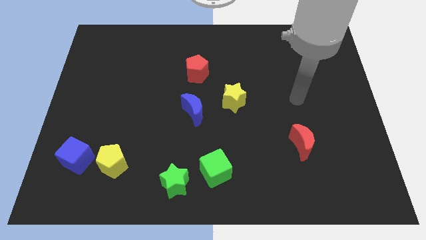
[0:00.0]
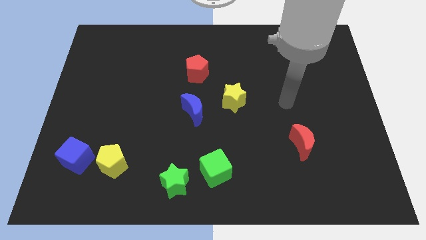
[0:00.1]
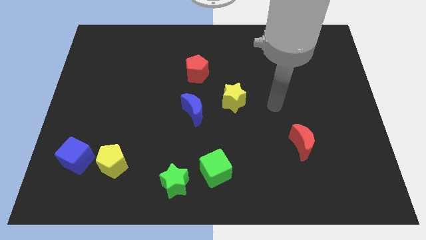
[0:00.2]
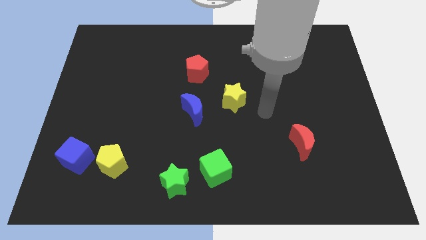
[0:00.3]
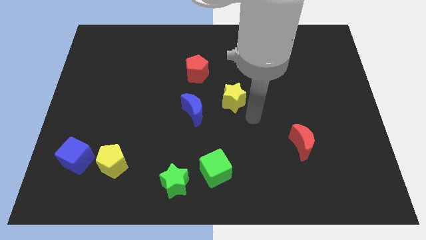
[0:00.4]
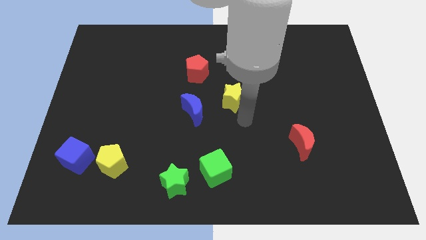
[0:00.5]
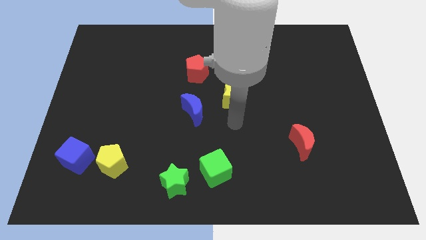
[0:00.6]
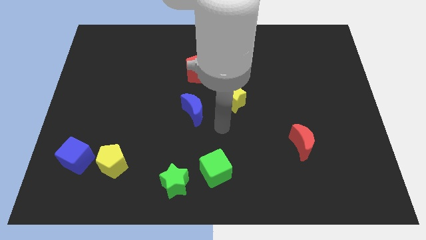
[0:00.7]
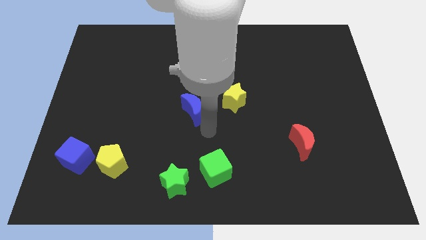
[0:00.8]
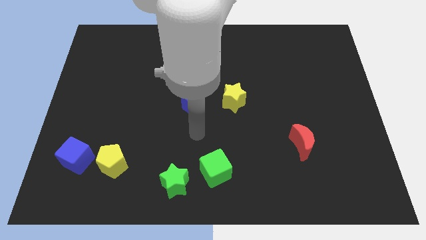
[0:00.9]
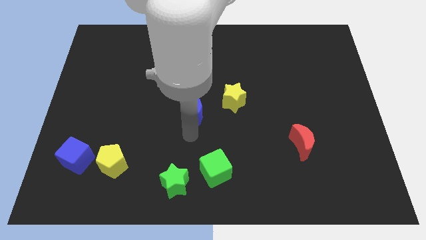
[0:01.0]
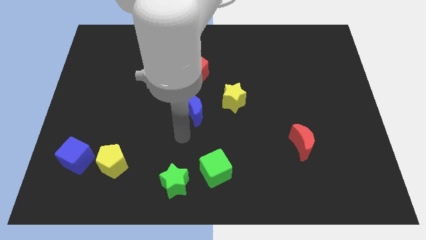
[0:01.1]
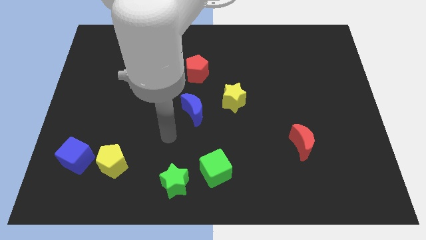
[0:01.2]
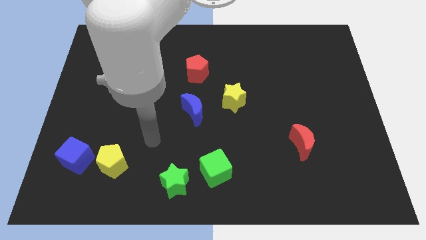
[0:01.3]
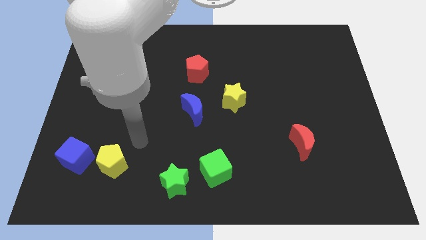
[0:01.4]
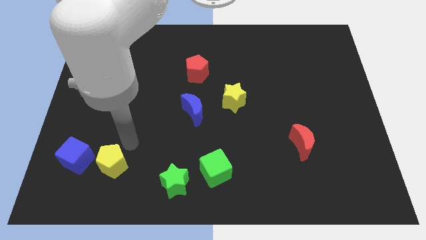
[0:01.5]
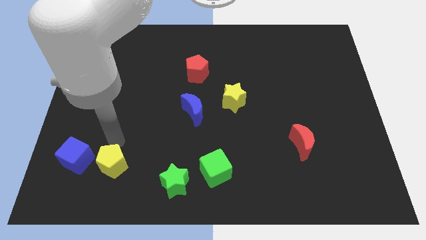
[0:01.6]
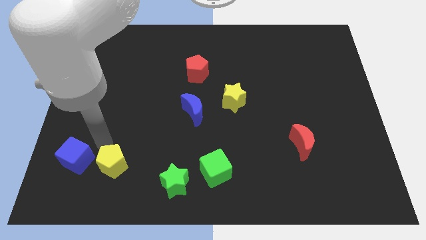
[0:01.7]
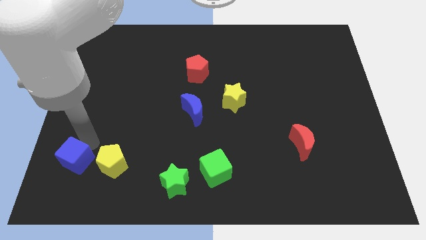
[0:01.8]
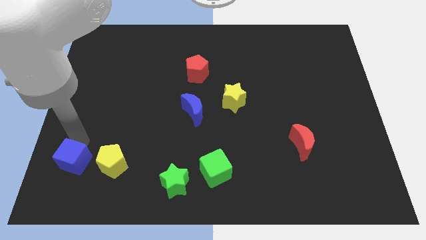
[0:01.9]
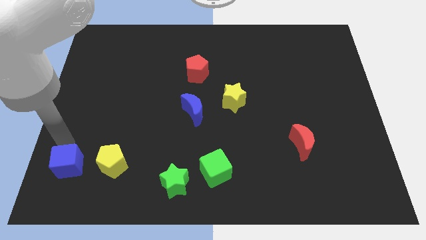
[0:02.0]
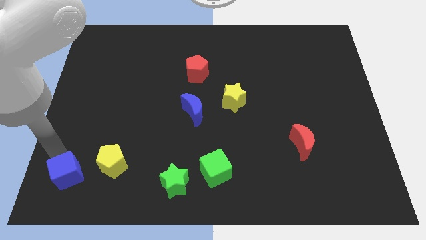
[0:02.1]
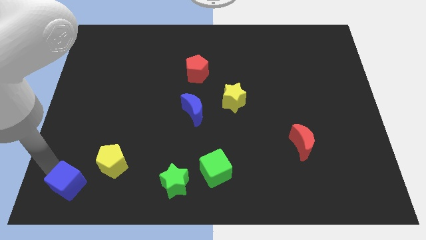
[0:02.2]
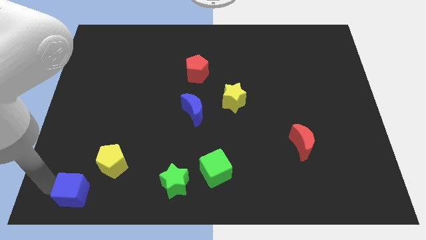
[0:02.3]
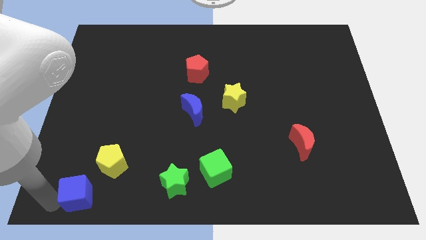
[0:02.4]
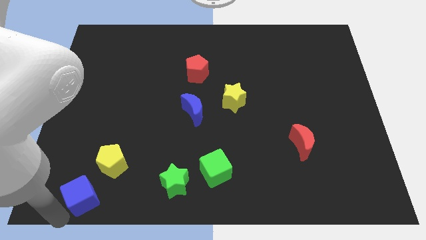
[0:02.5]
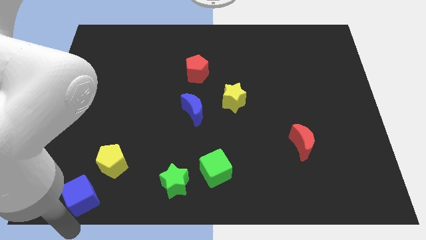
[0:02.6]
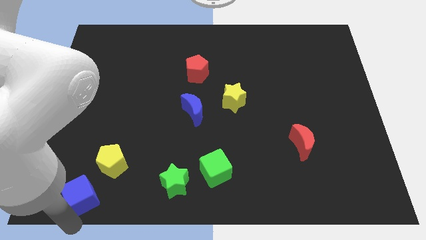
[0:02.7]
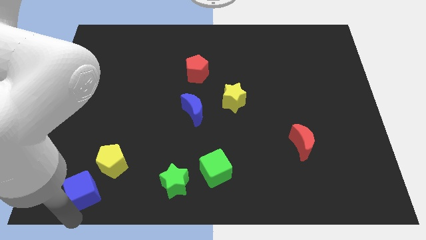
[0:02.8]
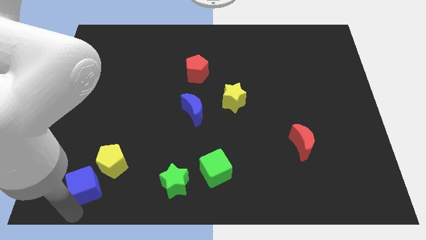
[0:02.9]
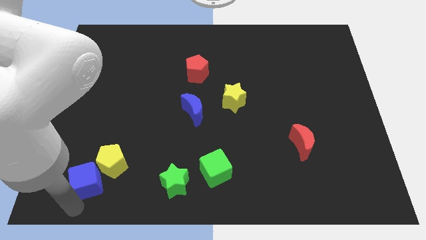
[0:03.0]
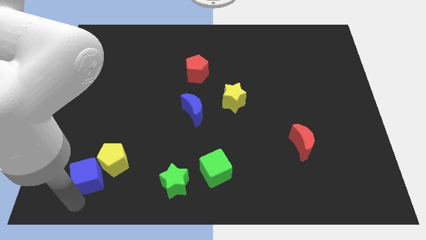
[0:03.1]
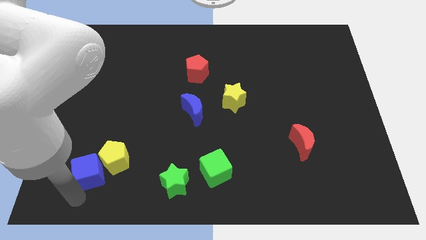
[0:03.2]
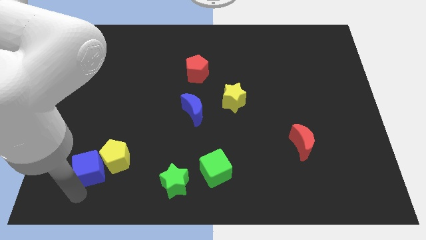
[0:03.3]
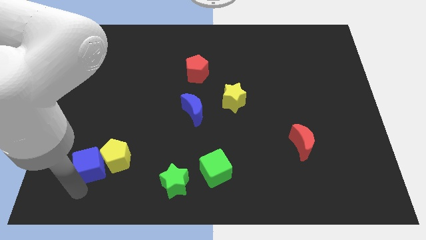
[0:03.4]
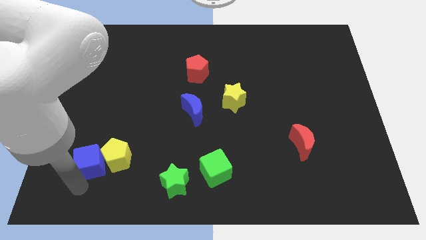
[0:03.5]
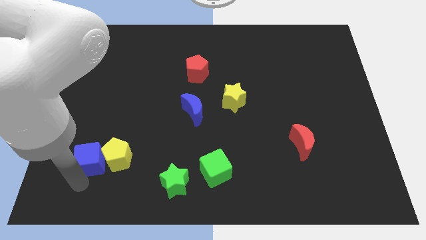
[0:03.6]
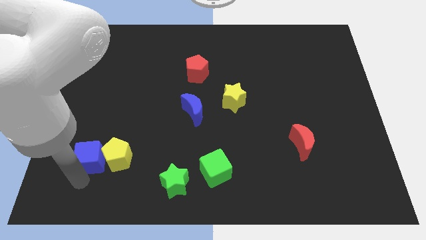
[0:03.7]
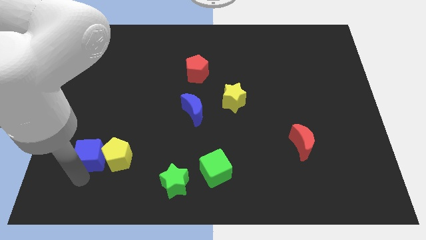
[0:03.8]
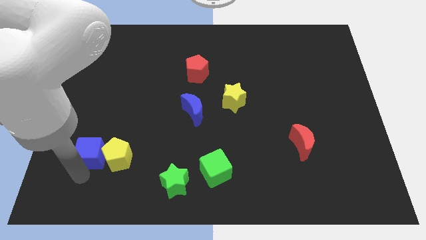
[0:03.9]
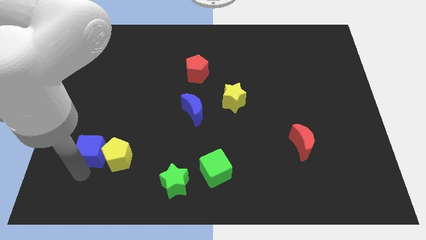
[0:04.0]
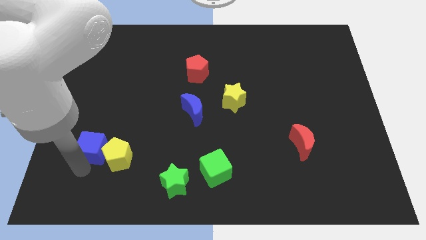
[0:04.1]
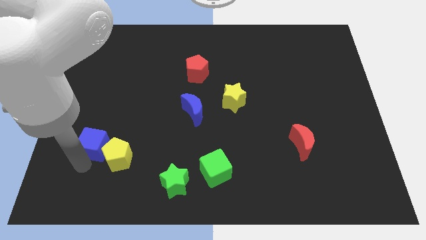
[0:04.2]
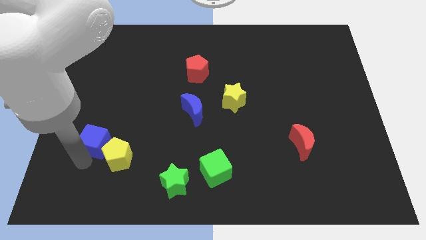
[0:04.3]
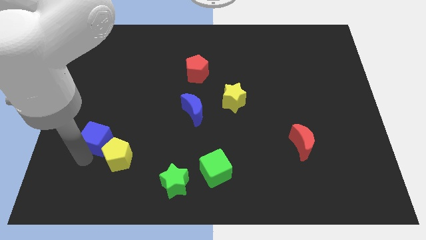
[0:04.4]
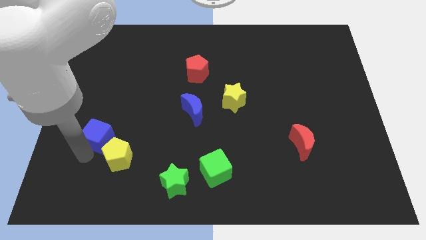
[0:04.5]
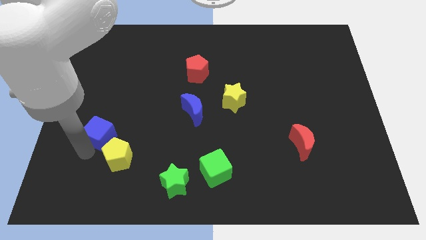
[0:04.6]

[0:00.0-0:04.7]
move the blue cube a little up and right diagonally

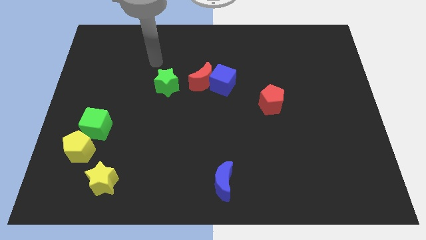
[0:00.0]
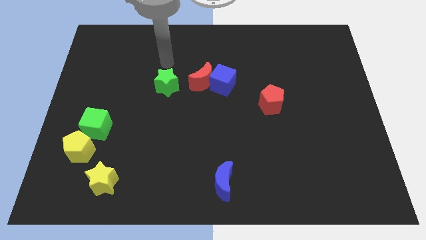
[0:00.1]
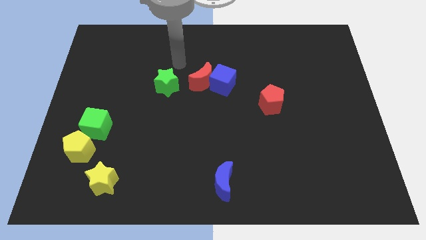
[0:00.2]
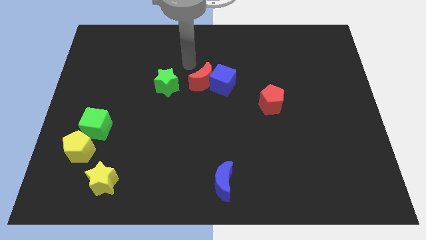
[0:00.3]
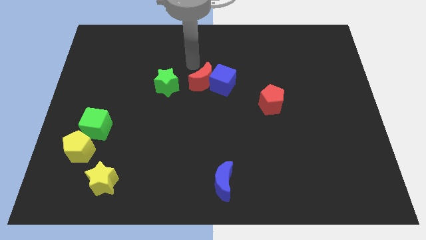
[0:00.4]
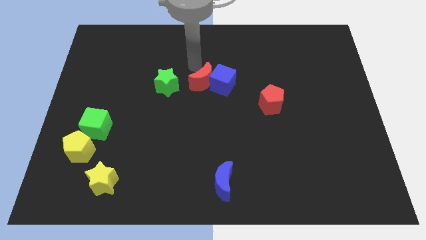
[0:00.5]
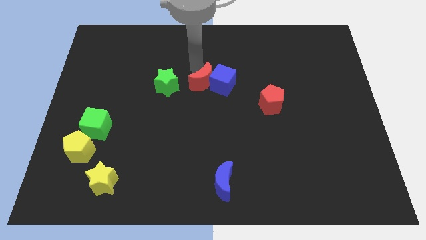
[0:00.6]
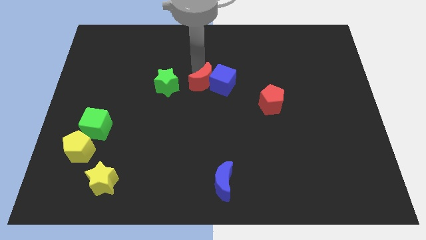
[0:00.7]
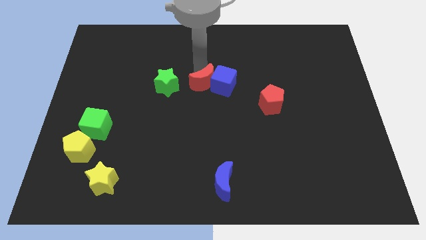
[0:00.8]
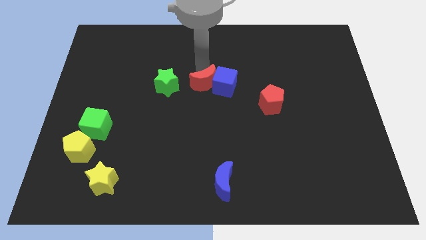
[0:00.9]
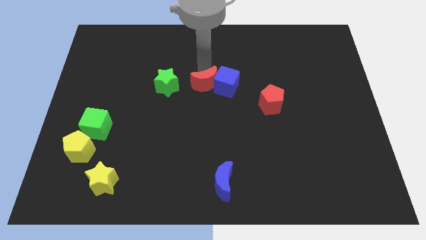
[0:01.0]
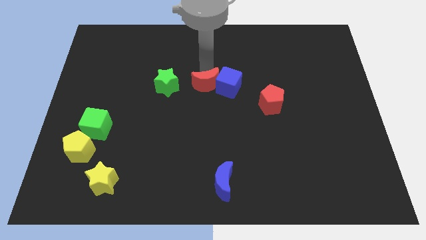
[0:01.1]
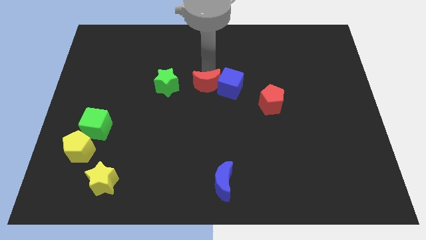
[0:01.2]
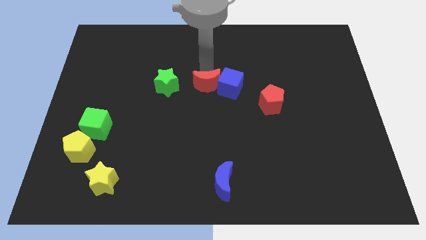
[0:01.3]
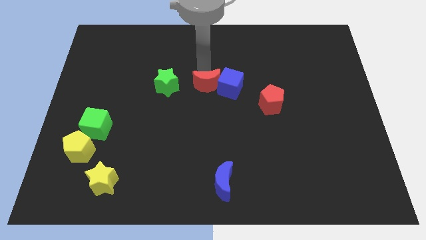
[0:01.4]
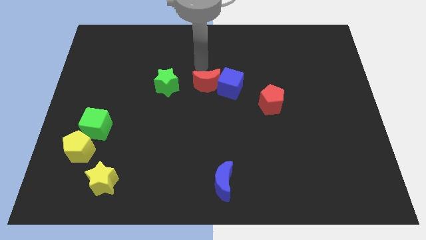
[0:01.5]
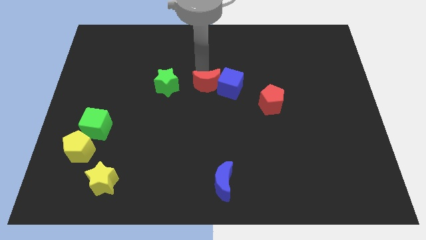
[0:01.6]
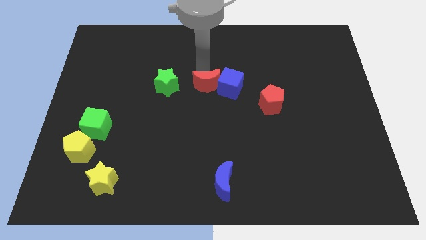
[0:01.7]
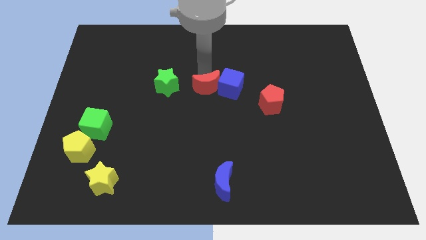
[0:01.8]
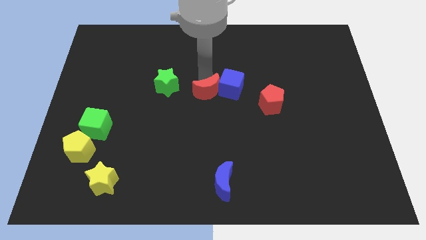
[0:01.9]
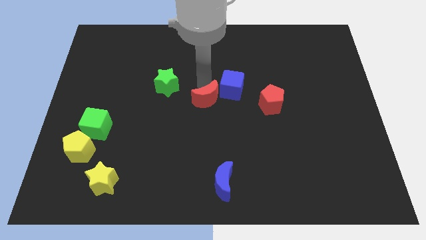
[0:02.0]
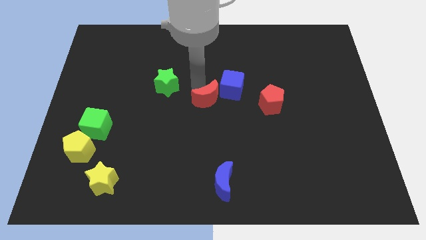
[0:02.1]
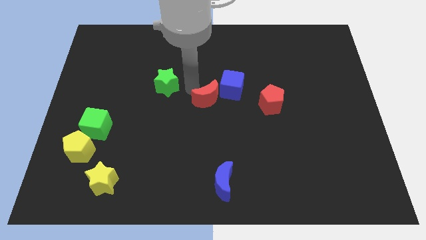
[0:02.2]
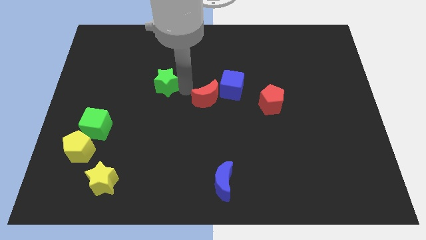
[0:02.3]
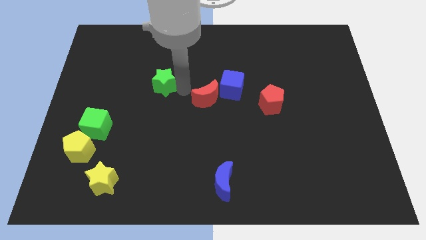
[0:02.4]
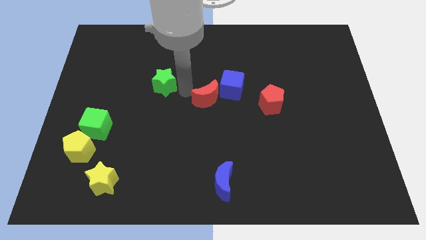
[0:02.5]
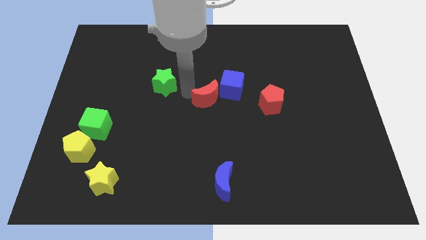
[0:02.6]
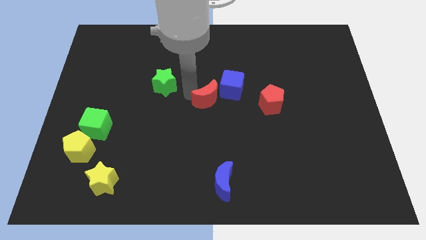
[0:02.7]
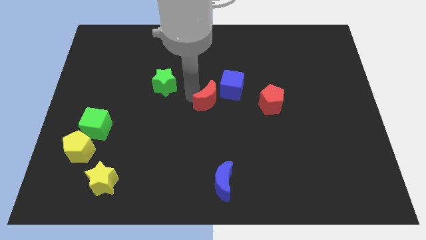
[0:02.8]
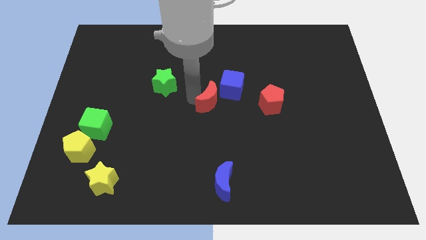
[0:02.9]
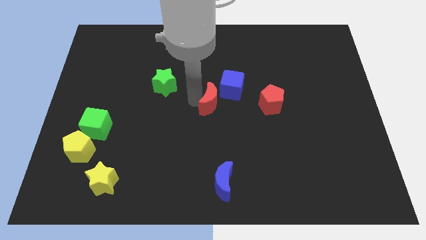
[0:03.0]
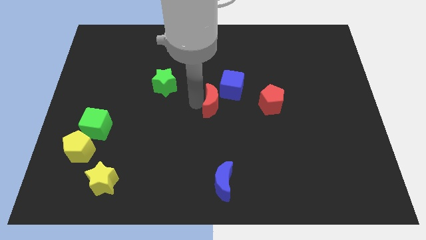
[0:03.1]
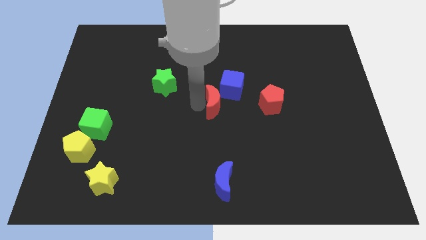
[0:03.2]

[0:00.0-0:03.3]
slightly push the red moon down and right diagonally
